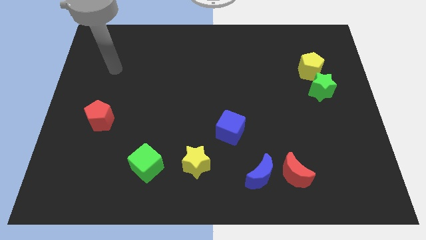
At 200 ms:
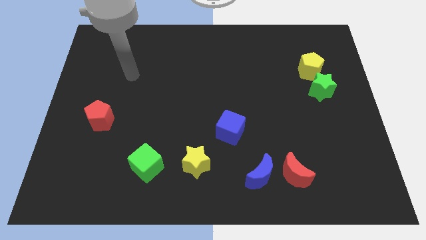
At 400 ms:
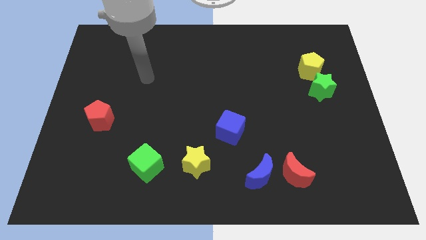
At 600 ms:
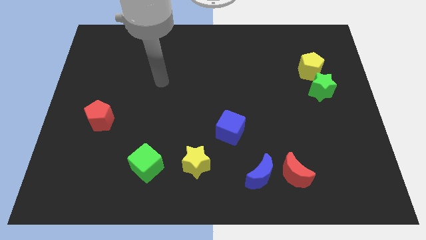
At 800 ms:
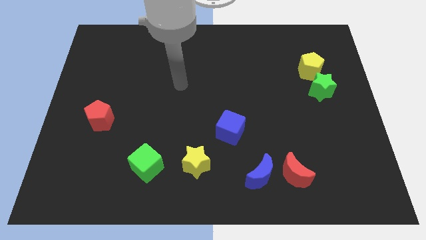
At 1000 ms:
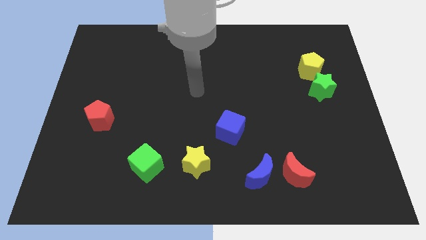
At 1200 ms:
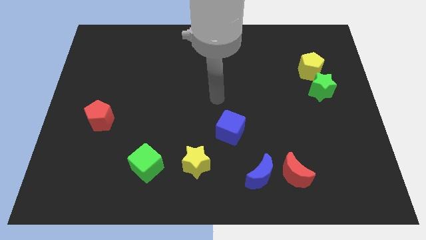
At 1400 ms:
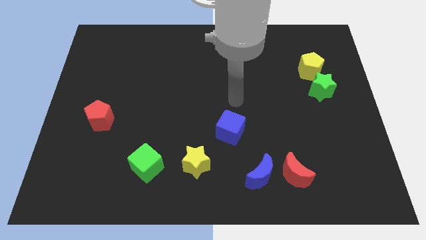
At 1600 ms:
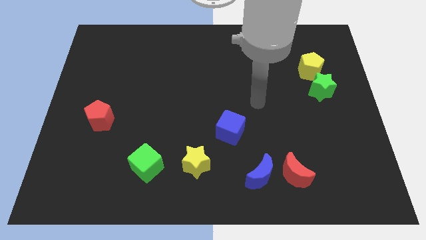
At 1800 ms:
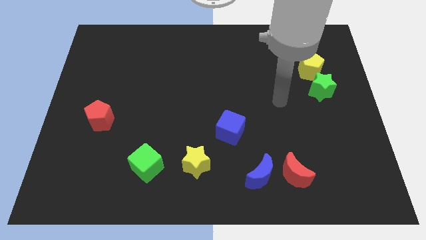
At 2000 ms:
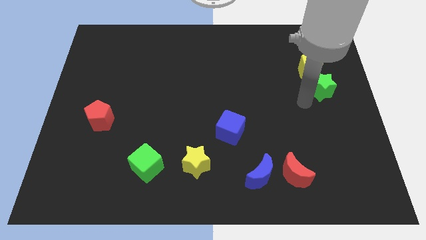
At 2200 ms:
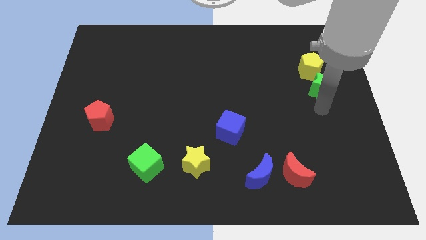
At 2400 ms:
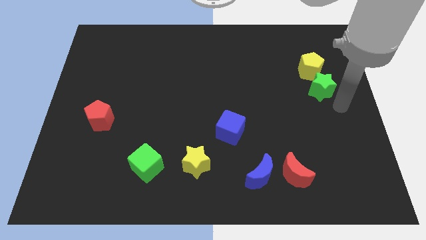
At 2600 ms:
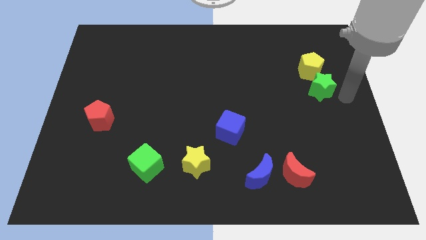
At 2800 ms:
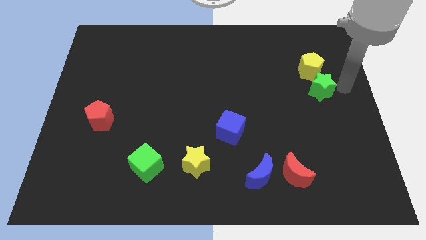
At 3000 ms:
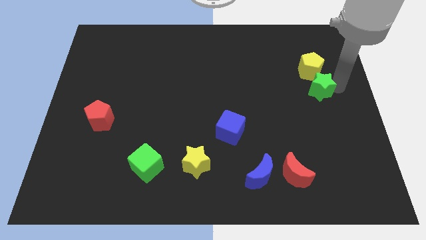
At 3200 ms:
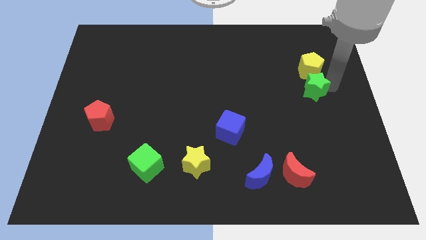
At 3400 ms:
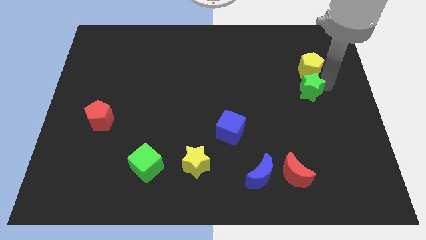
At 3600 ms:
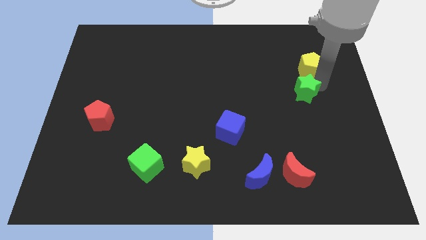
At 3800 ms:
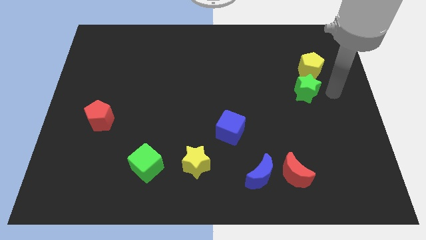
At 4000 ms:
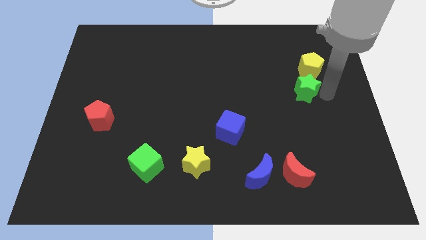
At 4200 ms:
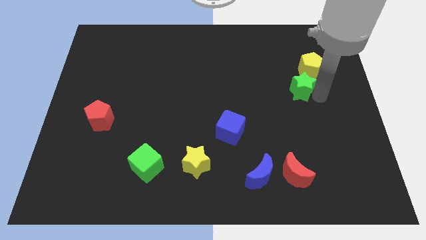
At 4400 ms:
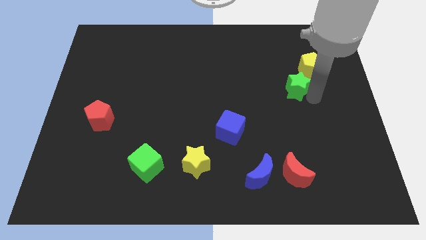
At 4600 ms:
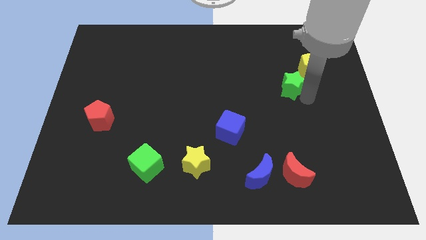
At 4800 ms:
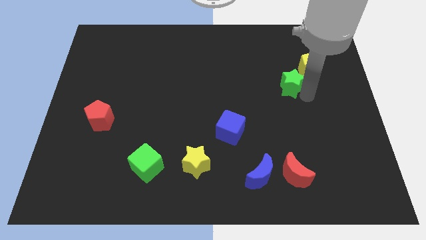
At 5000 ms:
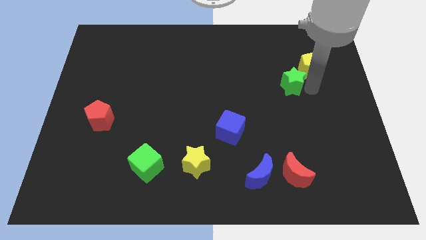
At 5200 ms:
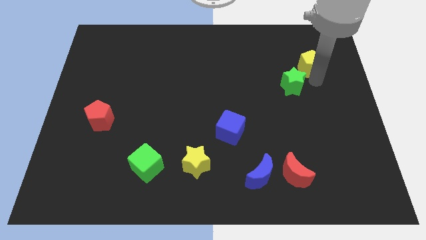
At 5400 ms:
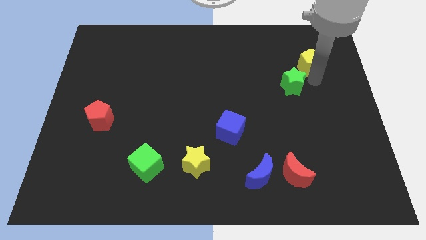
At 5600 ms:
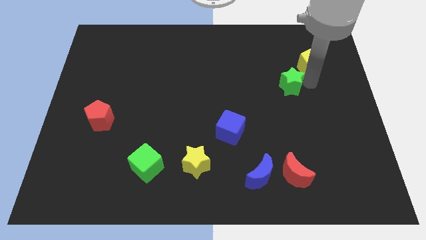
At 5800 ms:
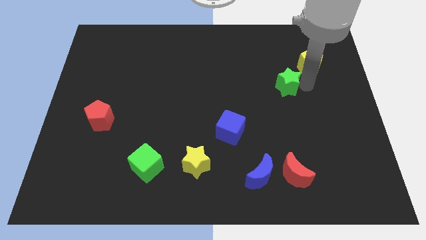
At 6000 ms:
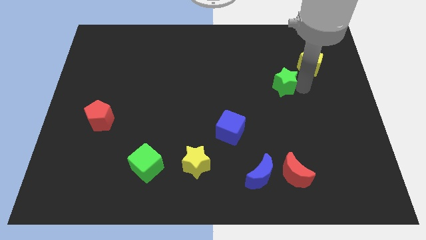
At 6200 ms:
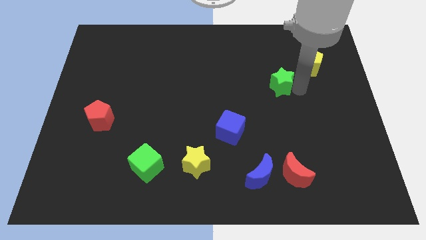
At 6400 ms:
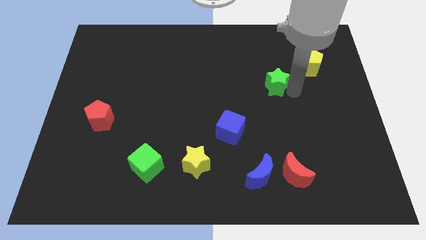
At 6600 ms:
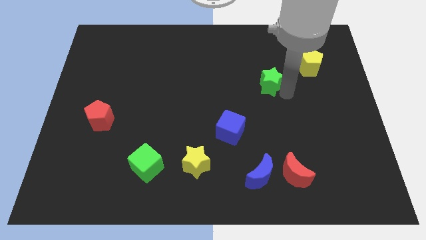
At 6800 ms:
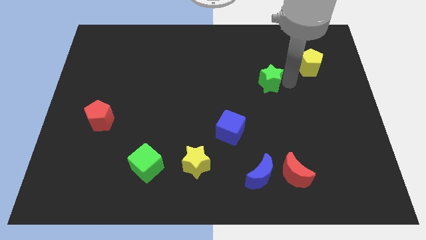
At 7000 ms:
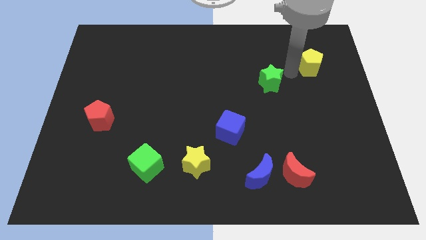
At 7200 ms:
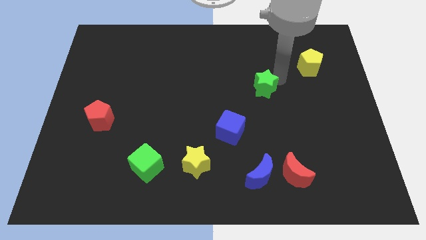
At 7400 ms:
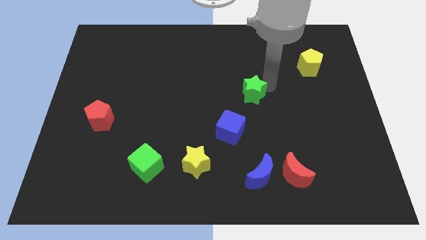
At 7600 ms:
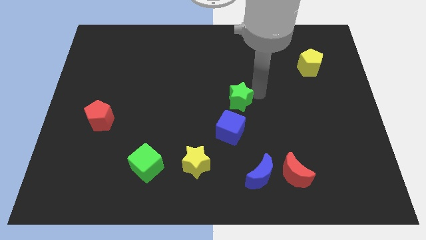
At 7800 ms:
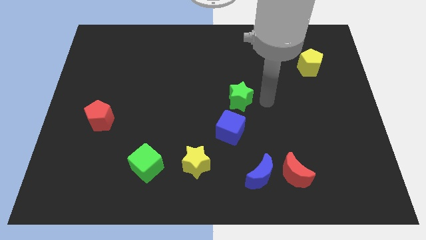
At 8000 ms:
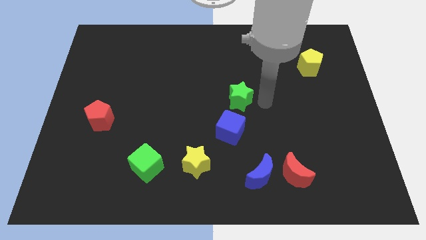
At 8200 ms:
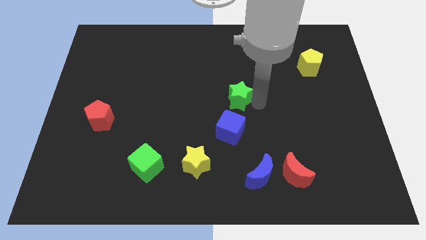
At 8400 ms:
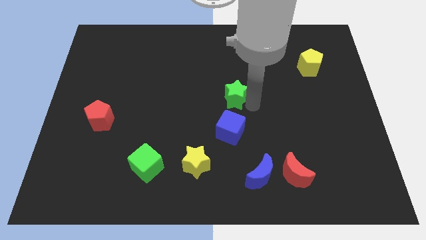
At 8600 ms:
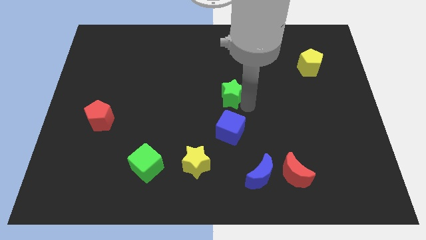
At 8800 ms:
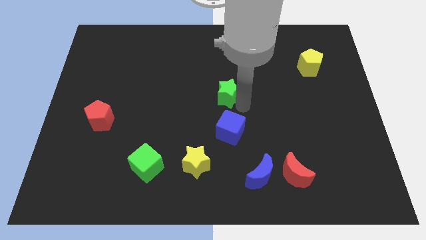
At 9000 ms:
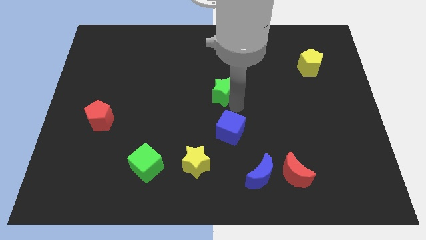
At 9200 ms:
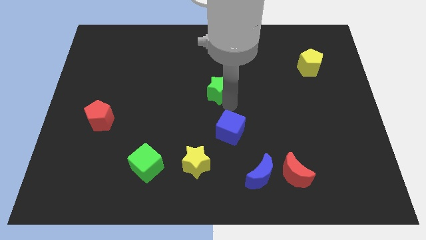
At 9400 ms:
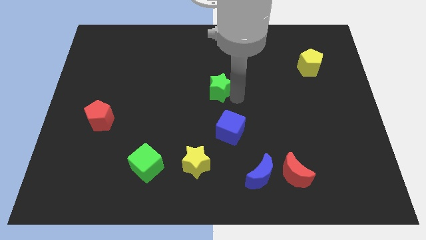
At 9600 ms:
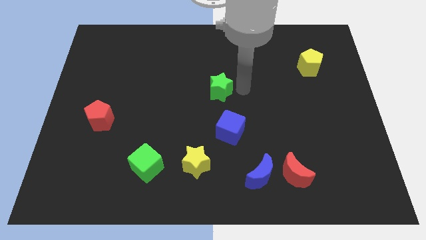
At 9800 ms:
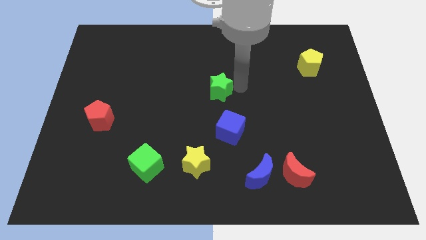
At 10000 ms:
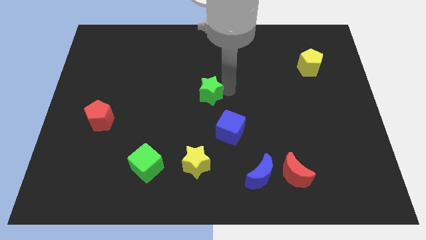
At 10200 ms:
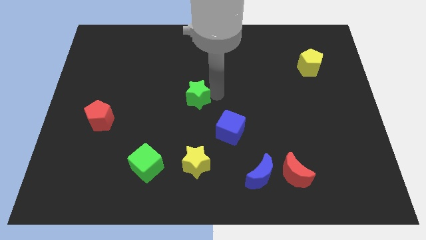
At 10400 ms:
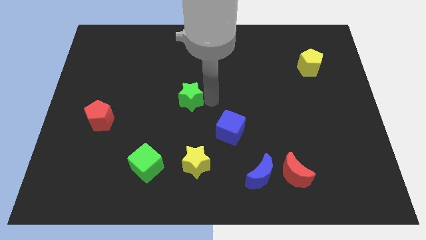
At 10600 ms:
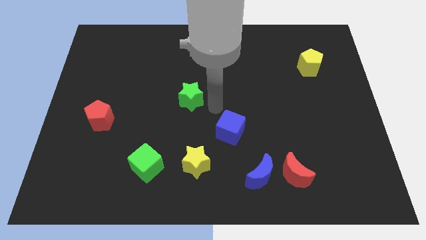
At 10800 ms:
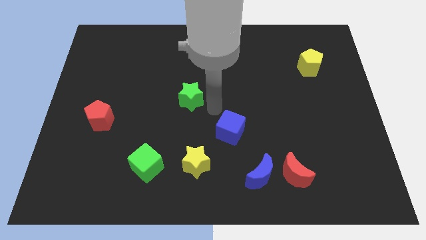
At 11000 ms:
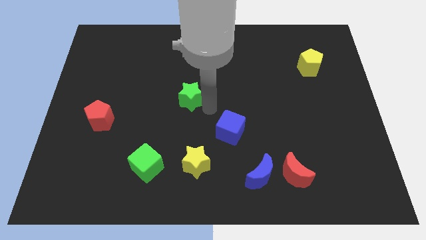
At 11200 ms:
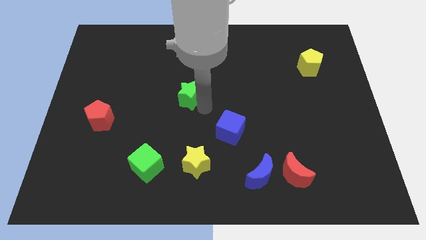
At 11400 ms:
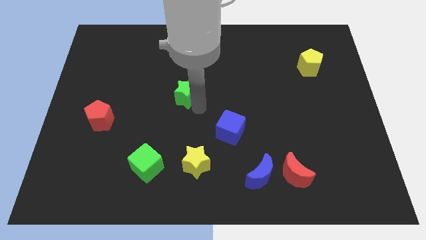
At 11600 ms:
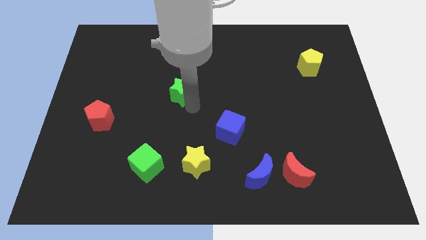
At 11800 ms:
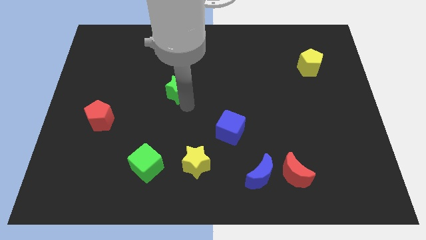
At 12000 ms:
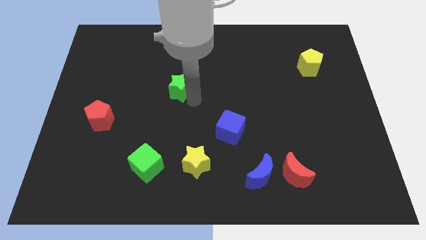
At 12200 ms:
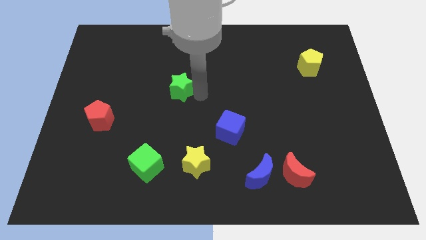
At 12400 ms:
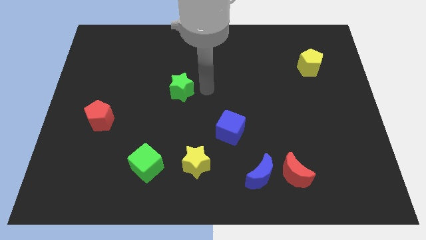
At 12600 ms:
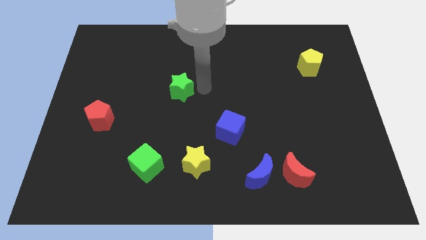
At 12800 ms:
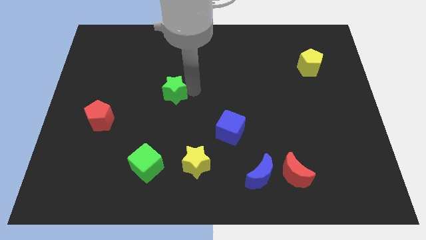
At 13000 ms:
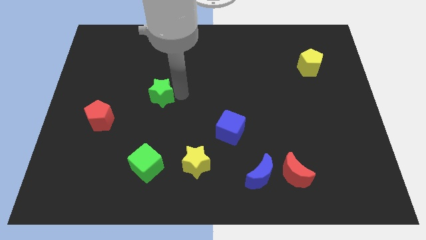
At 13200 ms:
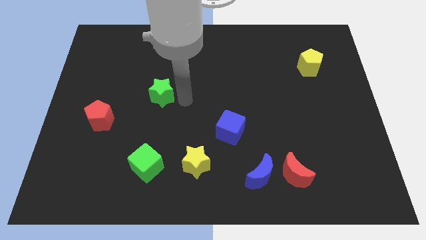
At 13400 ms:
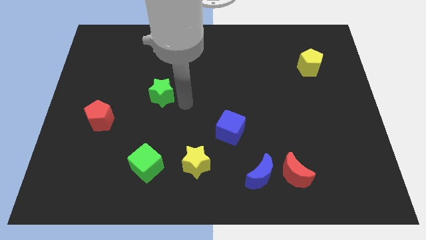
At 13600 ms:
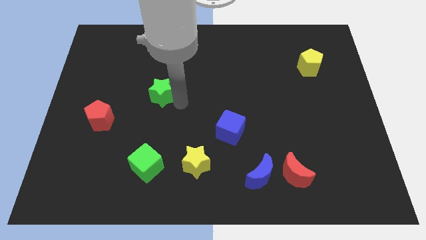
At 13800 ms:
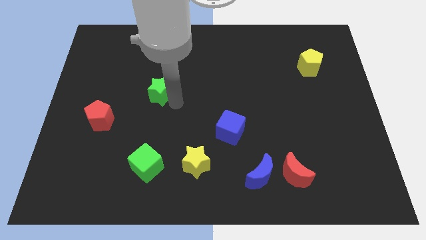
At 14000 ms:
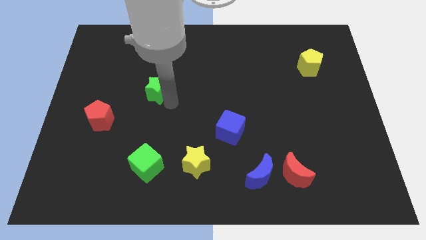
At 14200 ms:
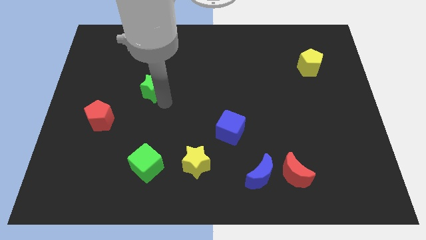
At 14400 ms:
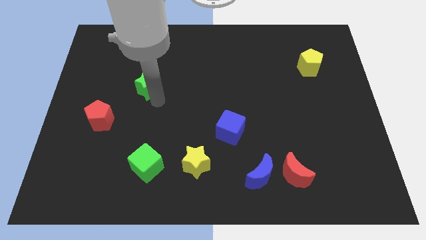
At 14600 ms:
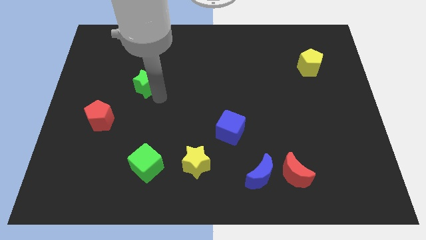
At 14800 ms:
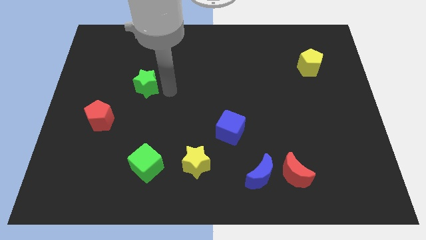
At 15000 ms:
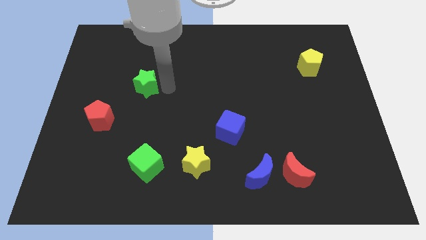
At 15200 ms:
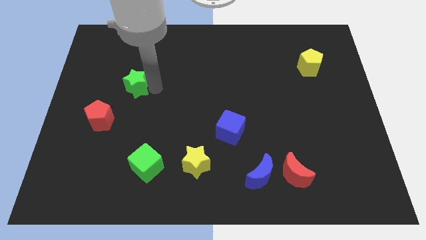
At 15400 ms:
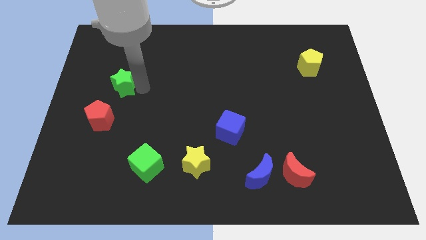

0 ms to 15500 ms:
slide the green star above the red pentagon

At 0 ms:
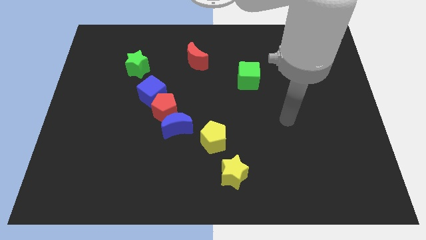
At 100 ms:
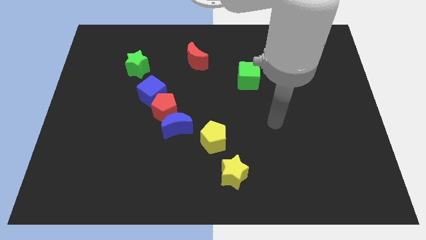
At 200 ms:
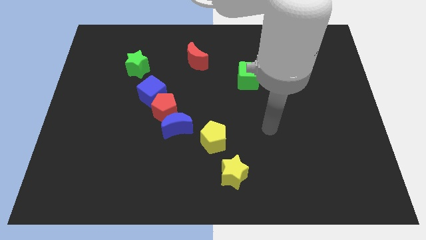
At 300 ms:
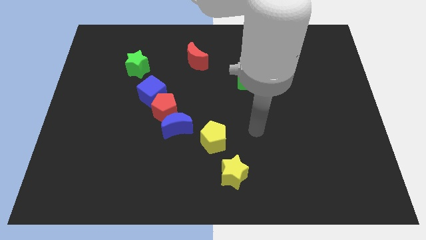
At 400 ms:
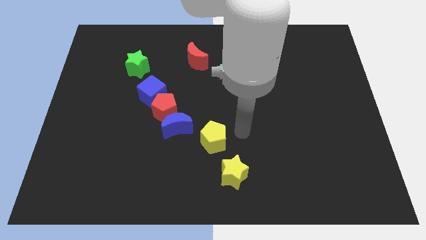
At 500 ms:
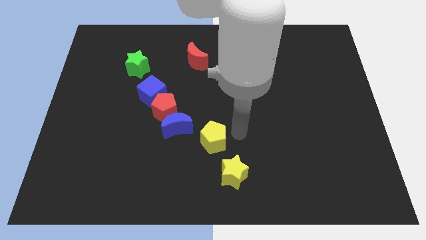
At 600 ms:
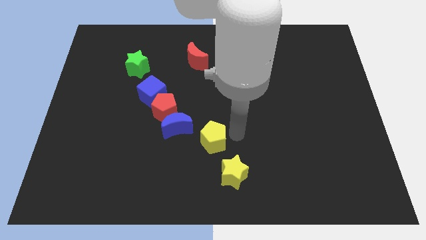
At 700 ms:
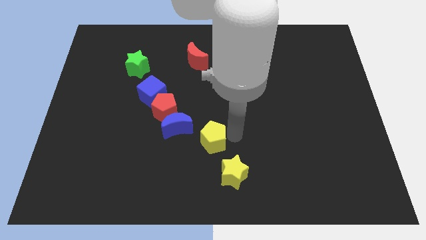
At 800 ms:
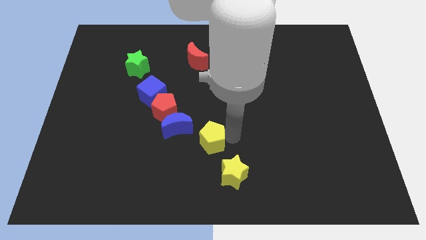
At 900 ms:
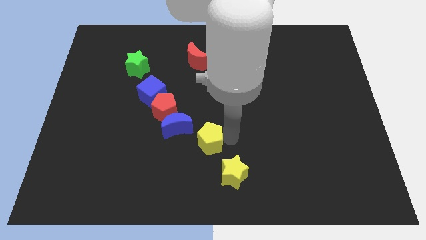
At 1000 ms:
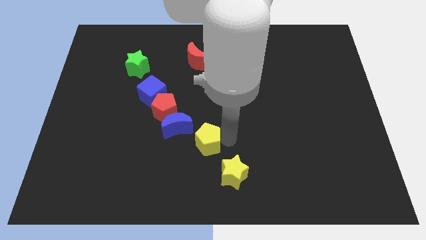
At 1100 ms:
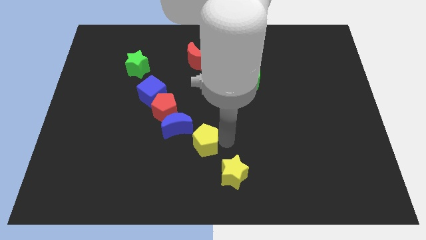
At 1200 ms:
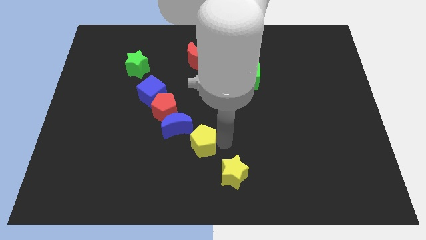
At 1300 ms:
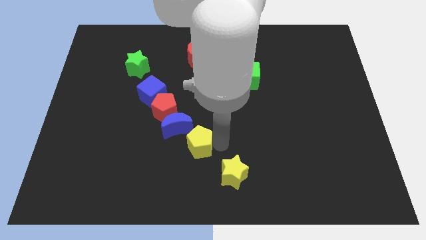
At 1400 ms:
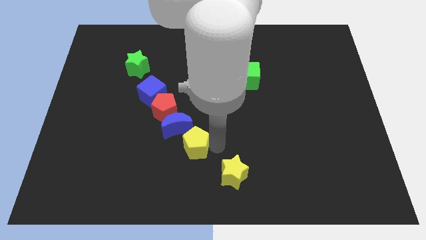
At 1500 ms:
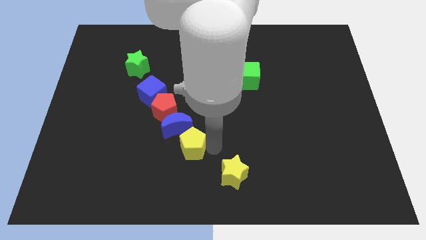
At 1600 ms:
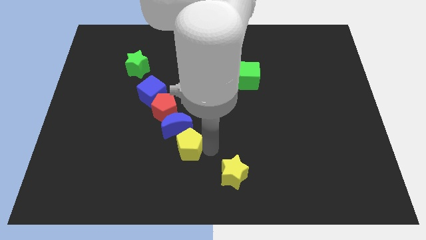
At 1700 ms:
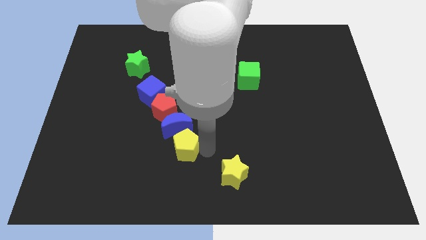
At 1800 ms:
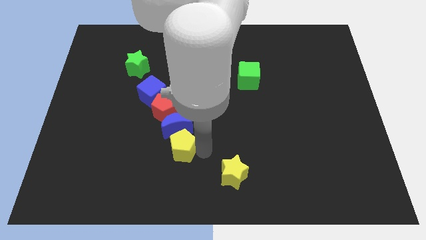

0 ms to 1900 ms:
put the yellow pentagon to the bottom of the red pentagon
